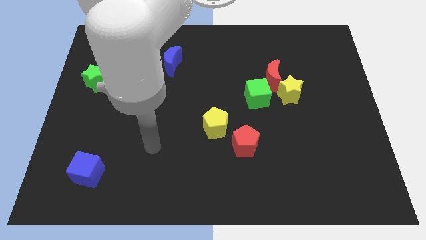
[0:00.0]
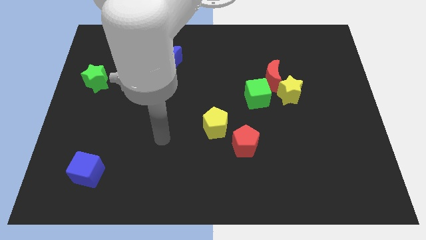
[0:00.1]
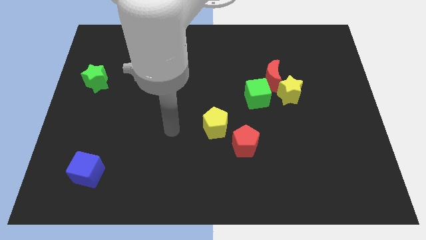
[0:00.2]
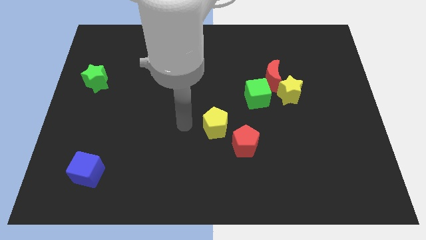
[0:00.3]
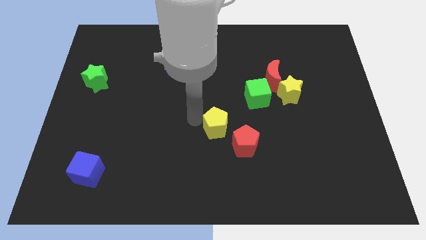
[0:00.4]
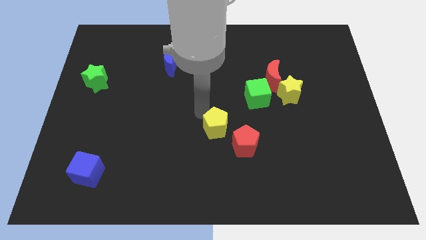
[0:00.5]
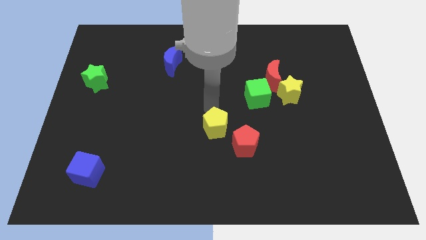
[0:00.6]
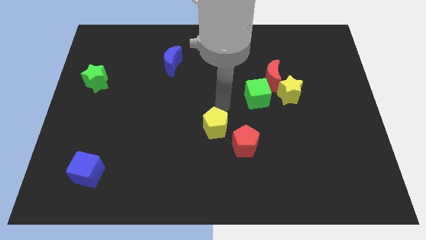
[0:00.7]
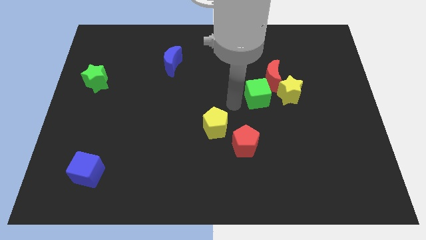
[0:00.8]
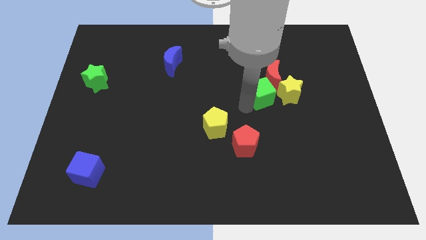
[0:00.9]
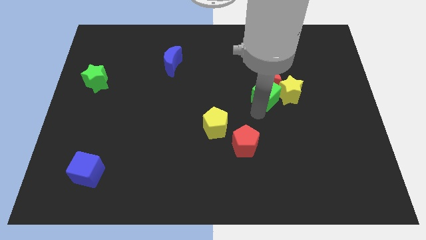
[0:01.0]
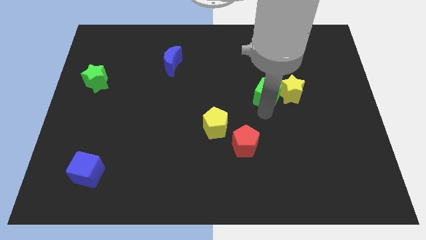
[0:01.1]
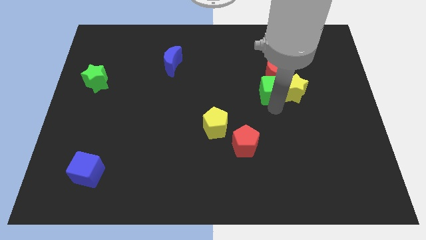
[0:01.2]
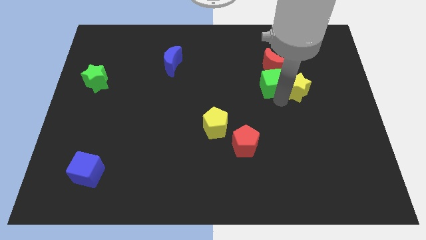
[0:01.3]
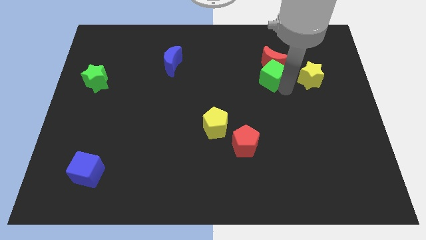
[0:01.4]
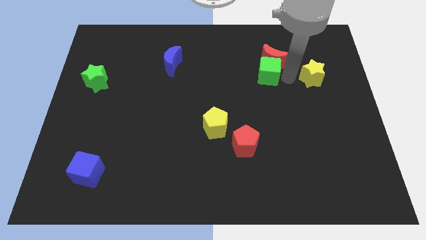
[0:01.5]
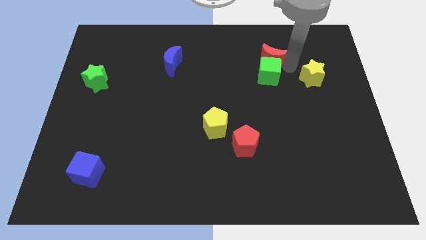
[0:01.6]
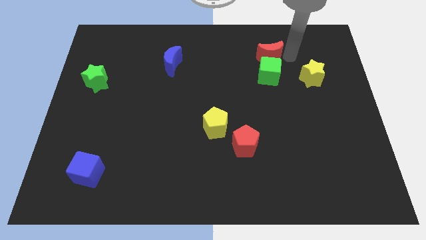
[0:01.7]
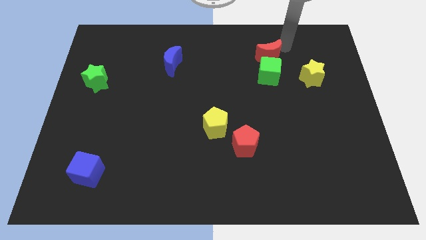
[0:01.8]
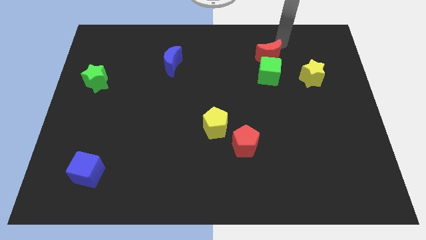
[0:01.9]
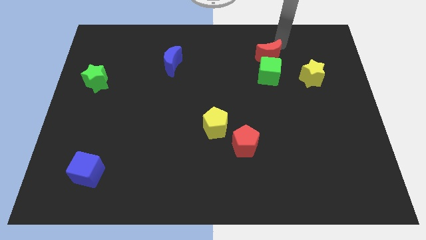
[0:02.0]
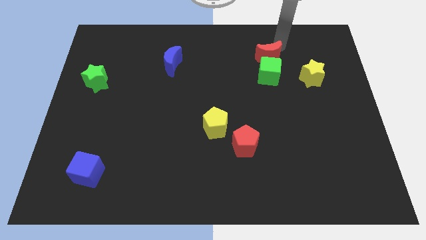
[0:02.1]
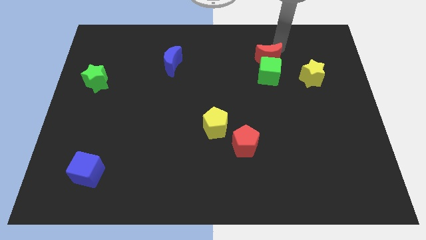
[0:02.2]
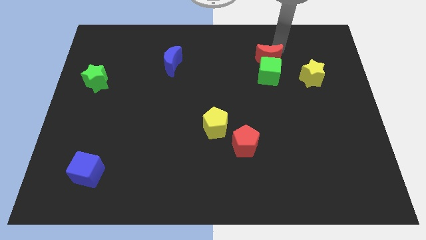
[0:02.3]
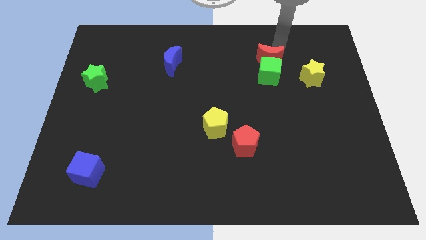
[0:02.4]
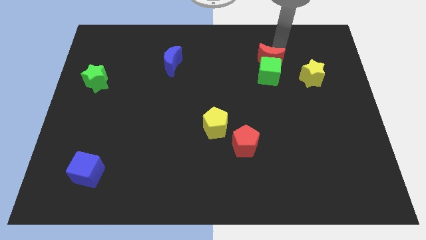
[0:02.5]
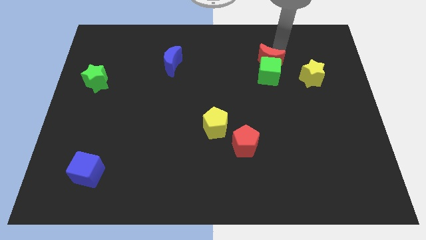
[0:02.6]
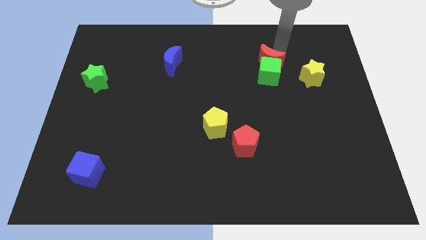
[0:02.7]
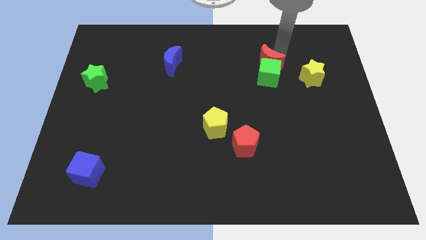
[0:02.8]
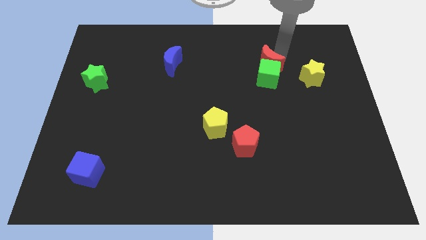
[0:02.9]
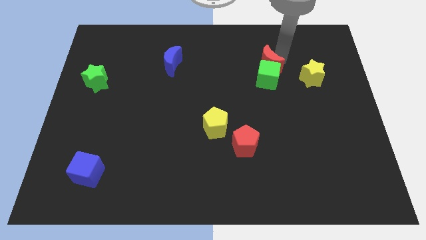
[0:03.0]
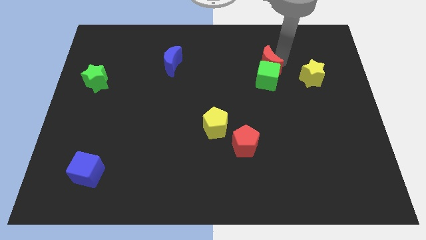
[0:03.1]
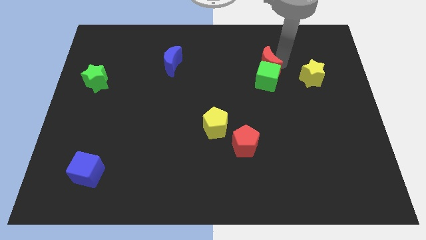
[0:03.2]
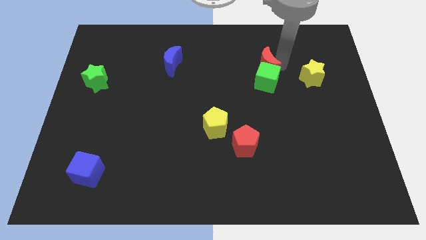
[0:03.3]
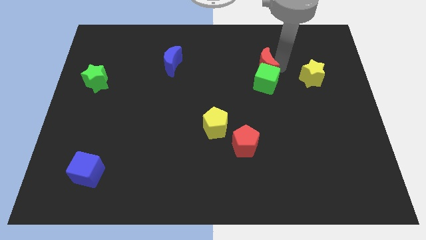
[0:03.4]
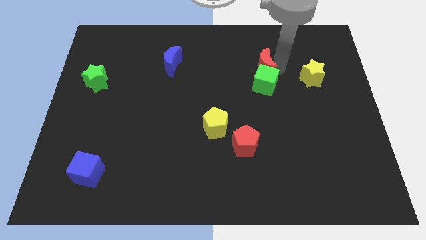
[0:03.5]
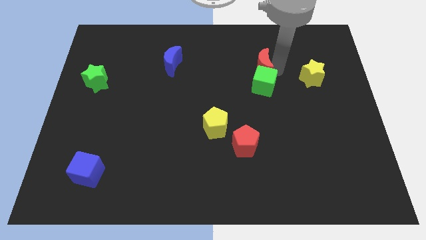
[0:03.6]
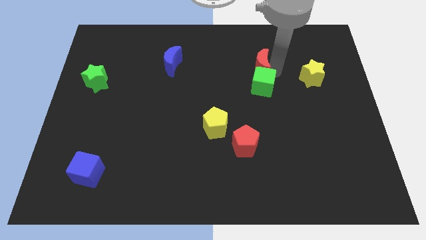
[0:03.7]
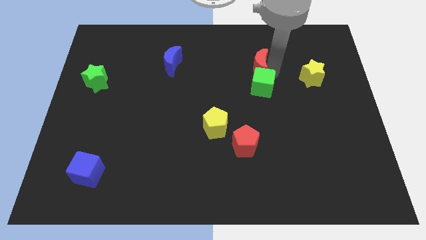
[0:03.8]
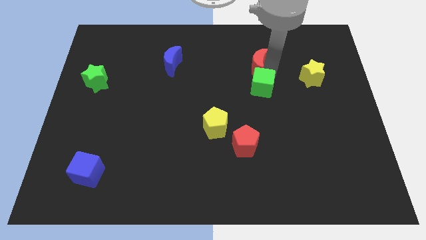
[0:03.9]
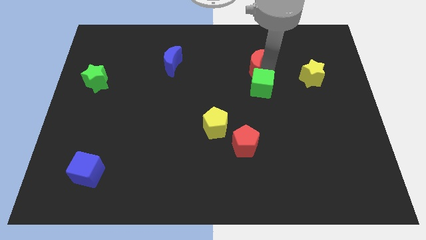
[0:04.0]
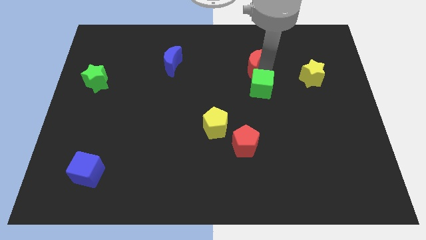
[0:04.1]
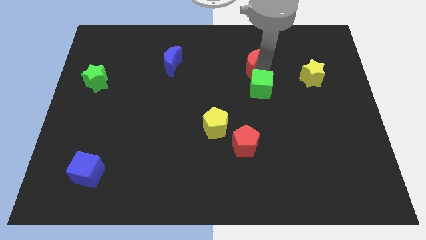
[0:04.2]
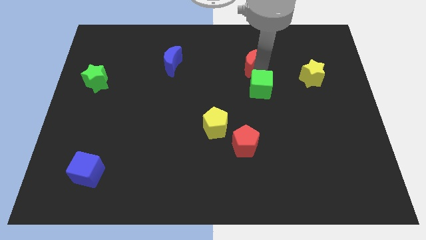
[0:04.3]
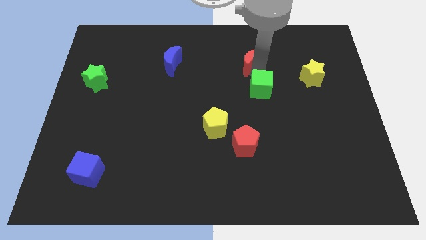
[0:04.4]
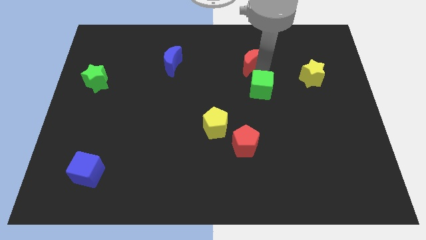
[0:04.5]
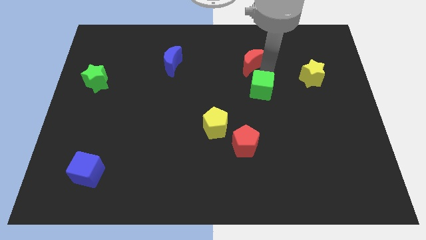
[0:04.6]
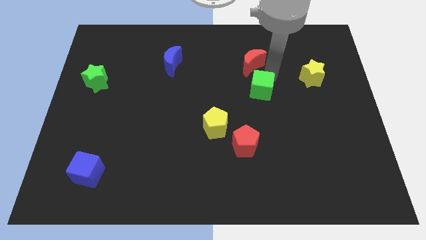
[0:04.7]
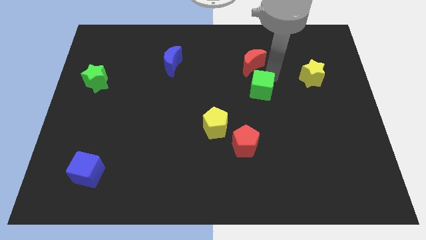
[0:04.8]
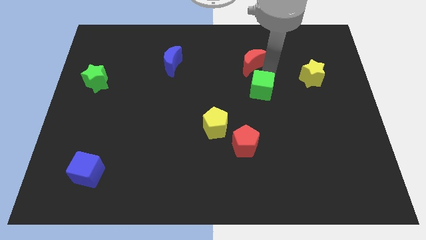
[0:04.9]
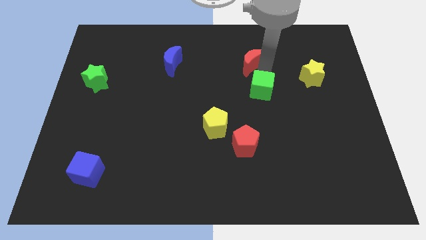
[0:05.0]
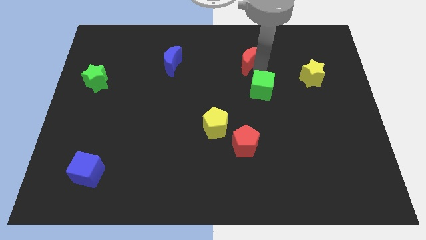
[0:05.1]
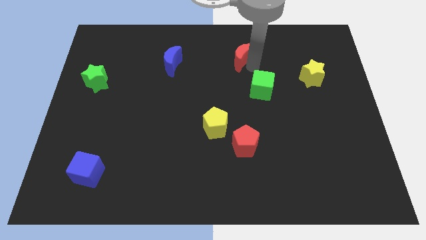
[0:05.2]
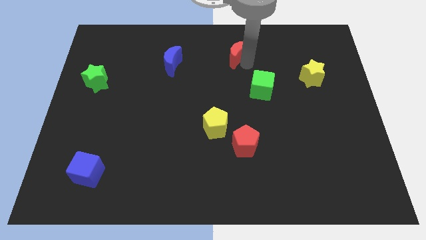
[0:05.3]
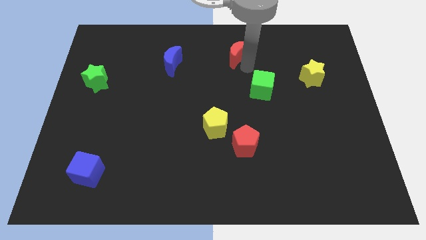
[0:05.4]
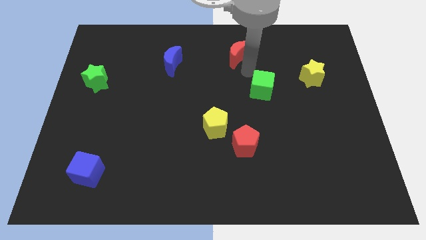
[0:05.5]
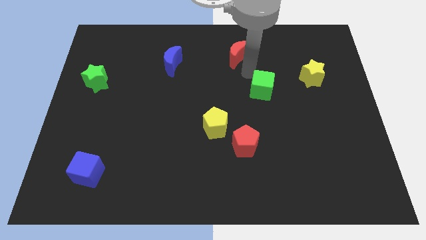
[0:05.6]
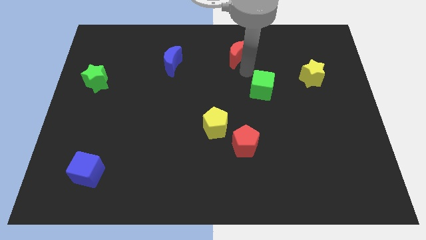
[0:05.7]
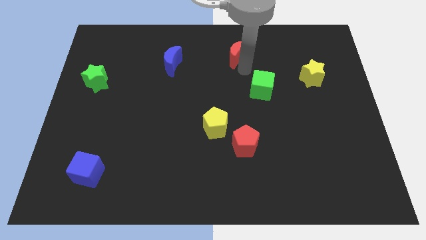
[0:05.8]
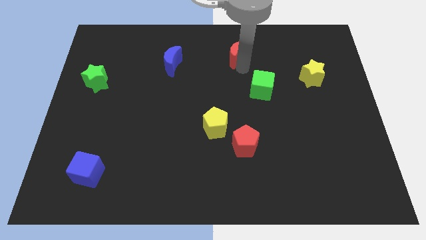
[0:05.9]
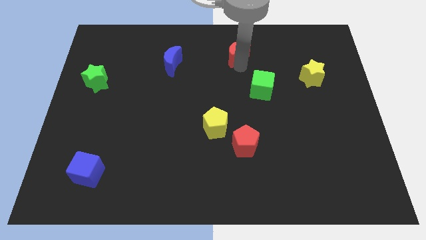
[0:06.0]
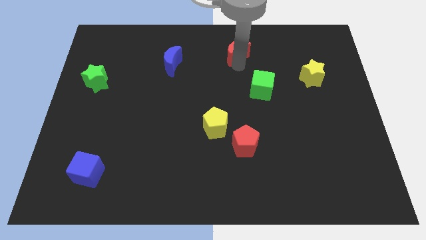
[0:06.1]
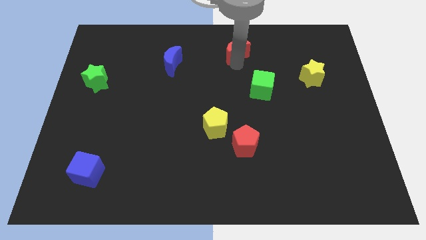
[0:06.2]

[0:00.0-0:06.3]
move the red moon to the top

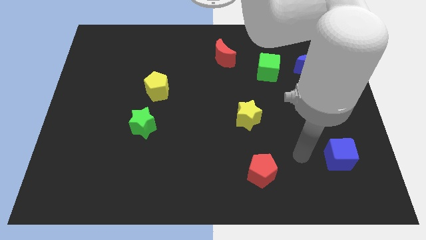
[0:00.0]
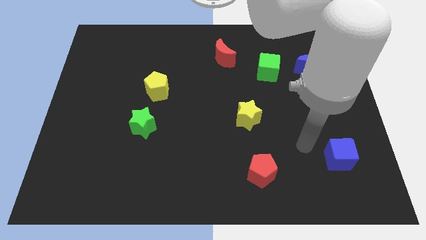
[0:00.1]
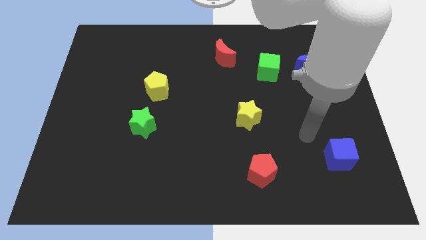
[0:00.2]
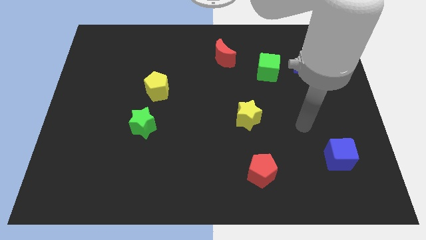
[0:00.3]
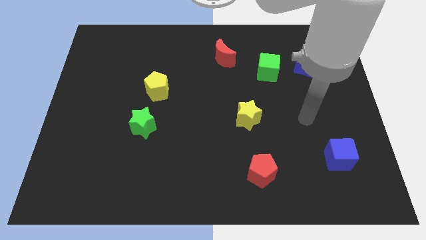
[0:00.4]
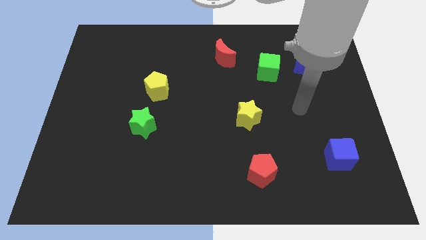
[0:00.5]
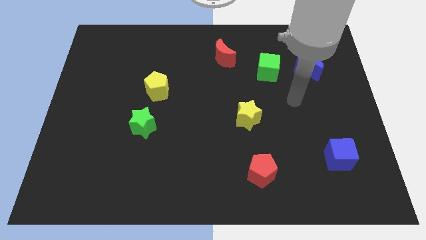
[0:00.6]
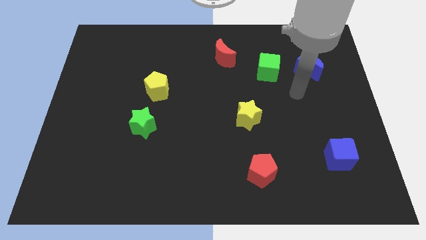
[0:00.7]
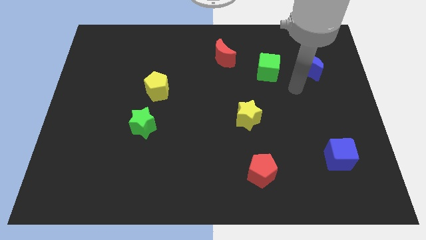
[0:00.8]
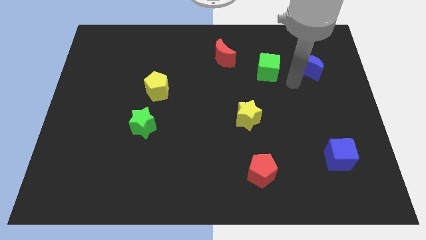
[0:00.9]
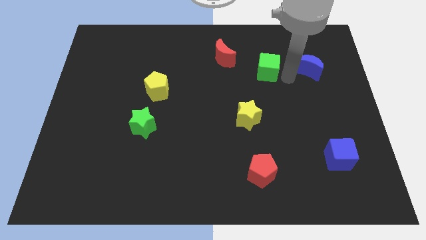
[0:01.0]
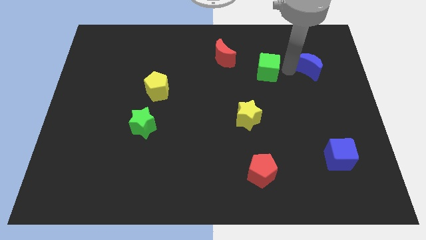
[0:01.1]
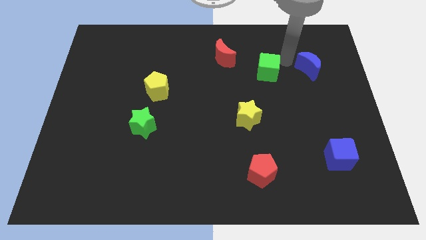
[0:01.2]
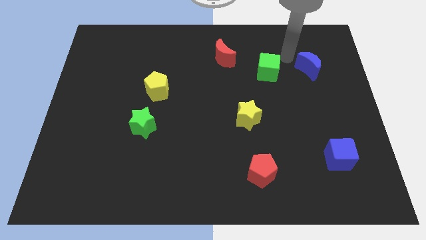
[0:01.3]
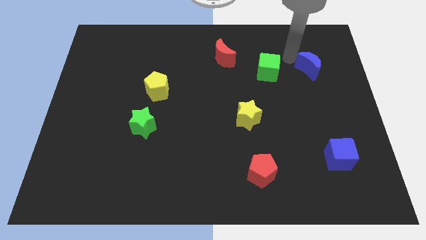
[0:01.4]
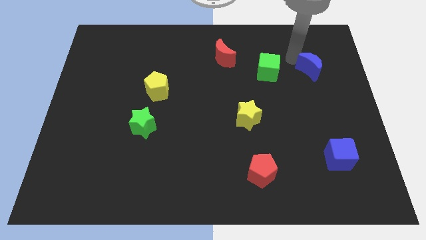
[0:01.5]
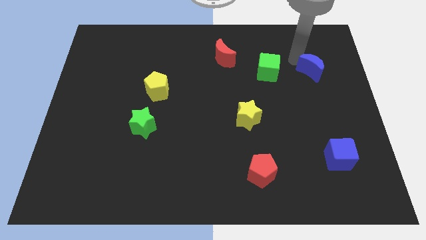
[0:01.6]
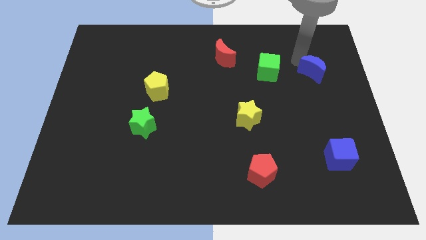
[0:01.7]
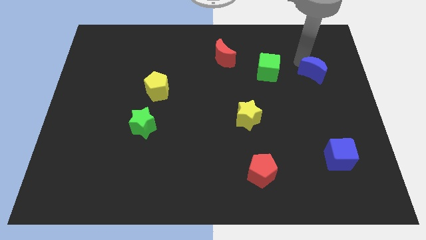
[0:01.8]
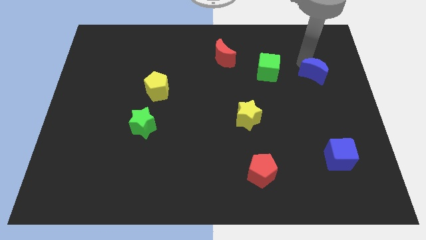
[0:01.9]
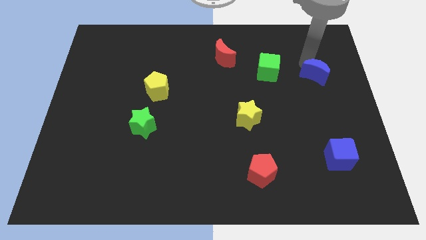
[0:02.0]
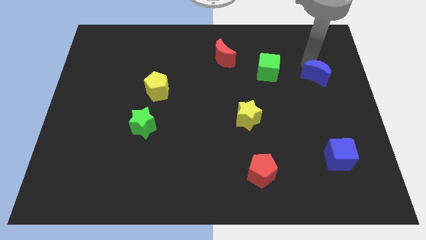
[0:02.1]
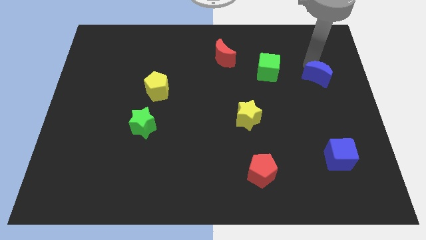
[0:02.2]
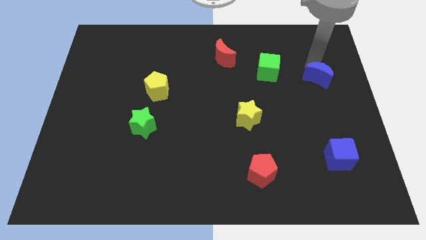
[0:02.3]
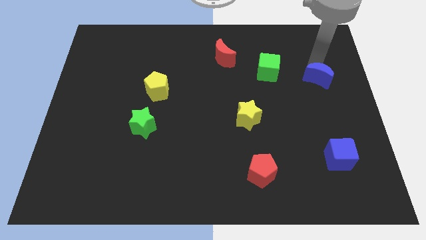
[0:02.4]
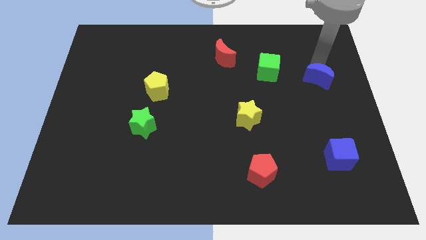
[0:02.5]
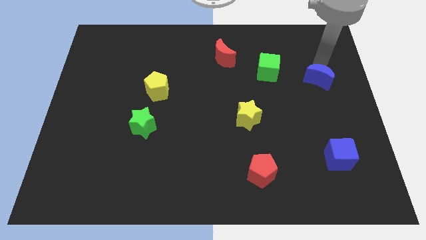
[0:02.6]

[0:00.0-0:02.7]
slide the blue moon to the right side
